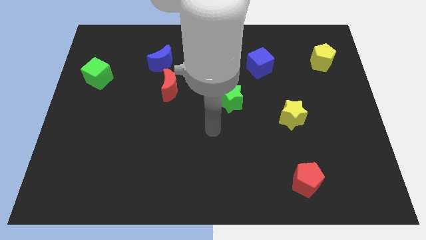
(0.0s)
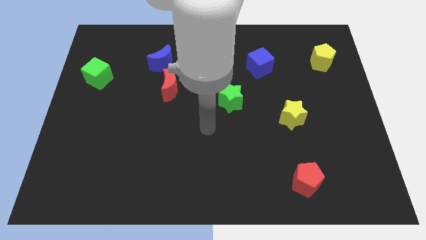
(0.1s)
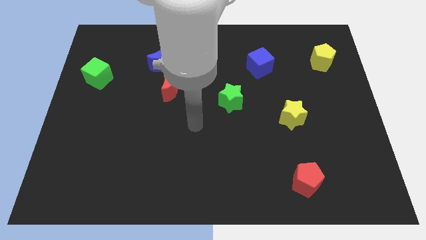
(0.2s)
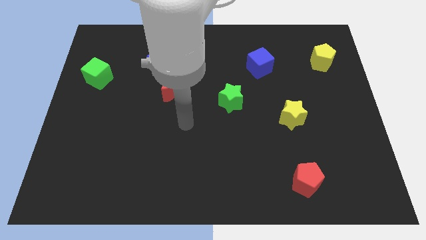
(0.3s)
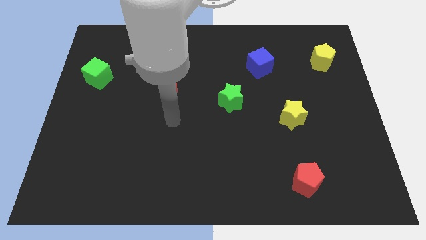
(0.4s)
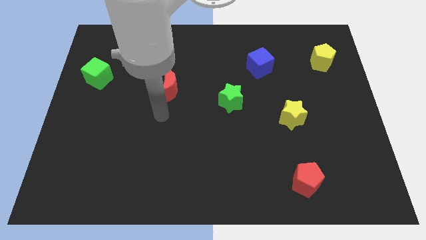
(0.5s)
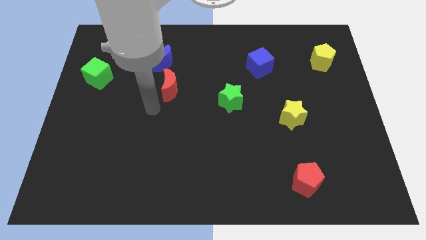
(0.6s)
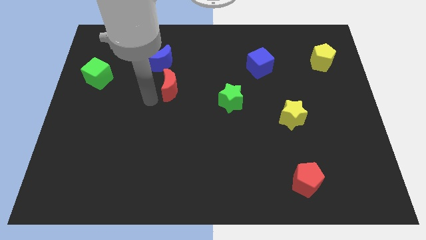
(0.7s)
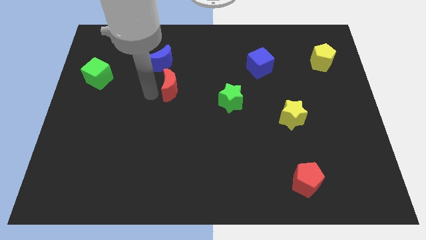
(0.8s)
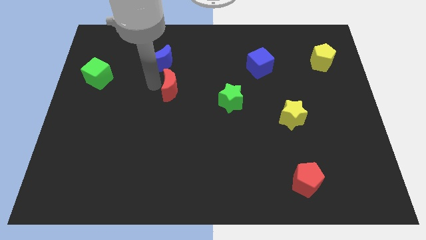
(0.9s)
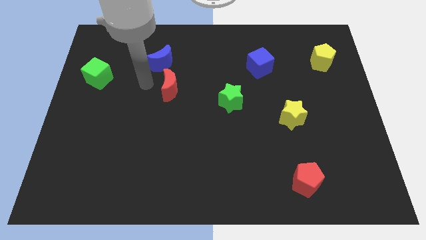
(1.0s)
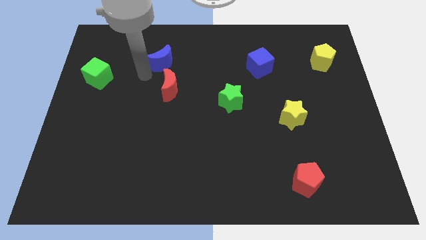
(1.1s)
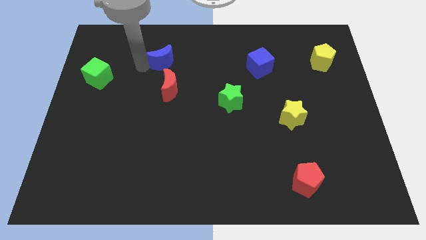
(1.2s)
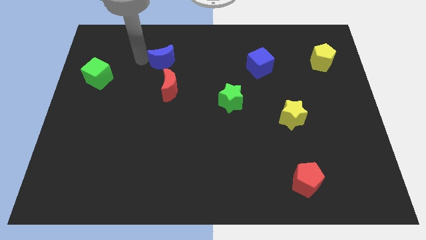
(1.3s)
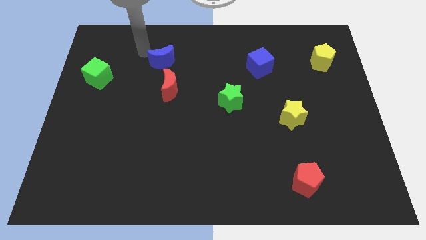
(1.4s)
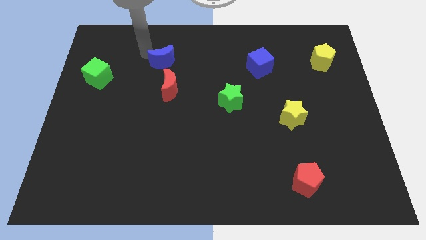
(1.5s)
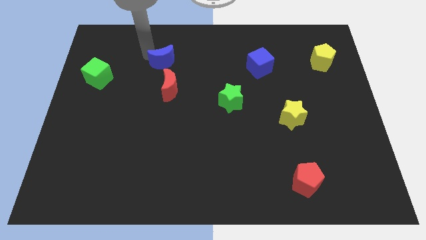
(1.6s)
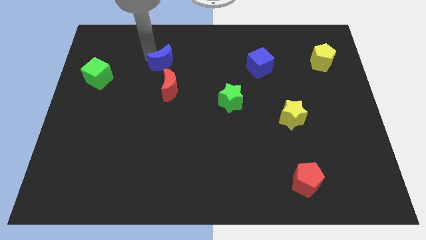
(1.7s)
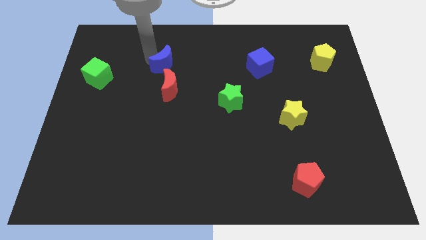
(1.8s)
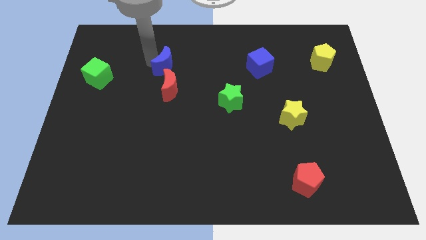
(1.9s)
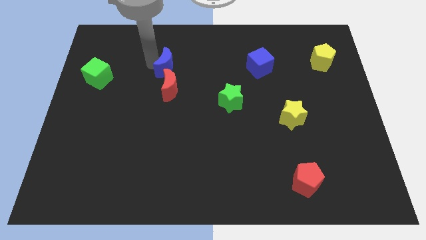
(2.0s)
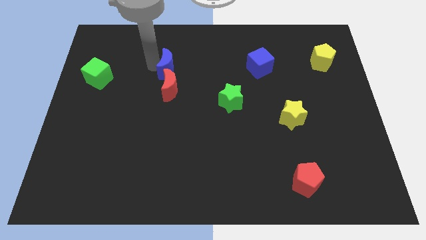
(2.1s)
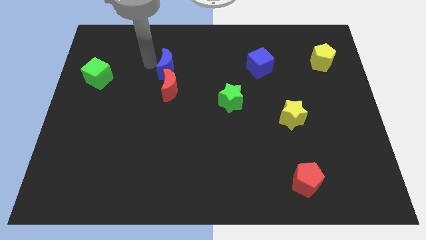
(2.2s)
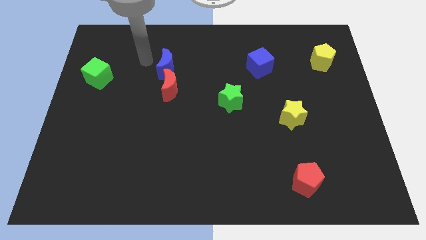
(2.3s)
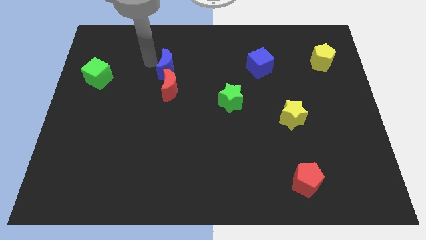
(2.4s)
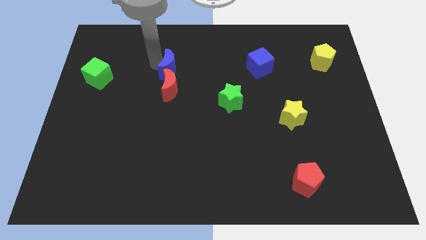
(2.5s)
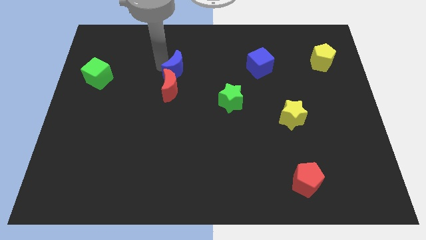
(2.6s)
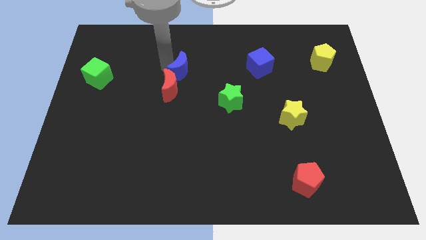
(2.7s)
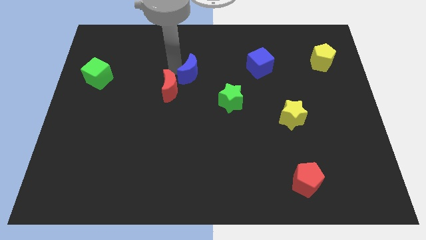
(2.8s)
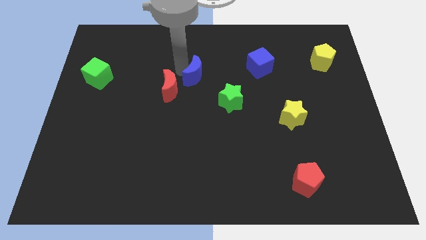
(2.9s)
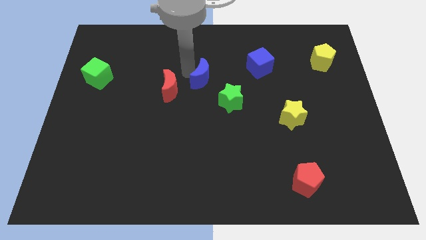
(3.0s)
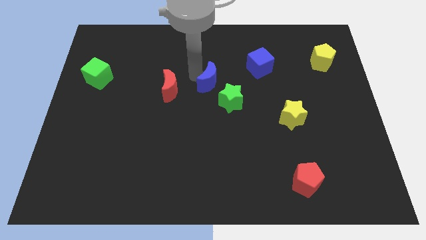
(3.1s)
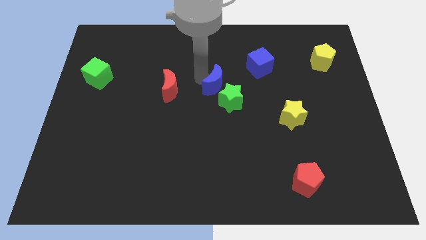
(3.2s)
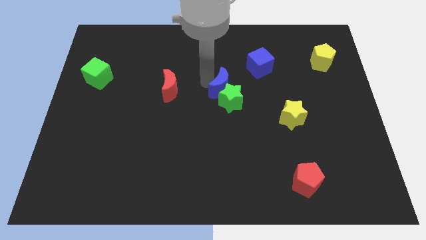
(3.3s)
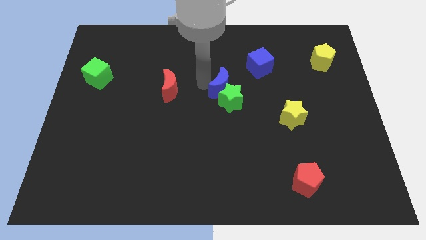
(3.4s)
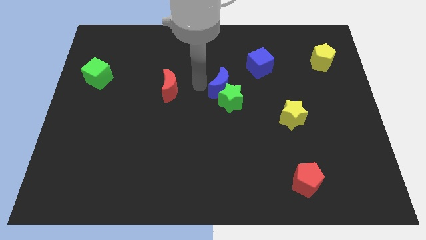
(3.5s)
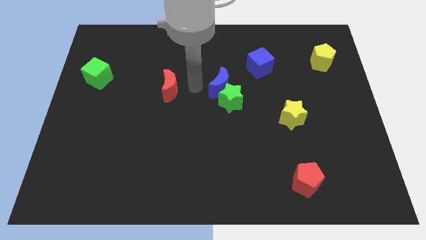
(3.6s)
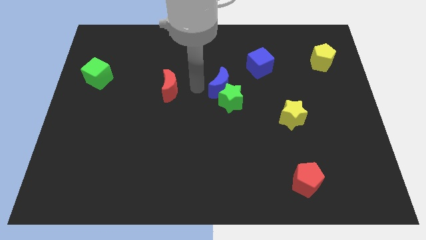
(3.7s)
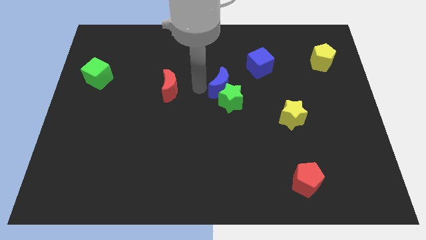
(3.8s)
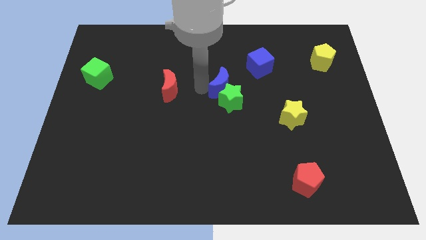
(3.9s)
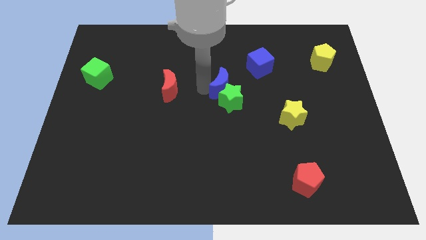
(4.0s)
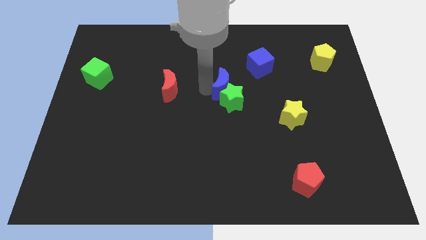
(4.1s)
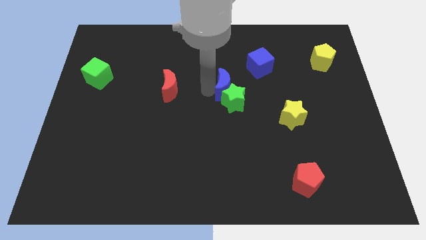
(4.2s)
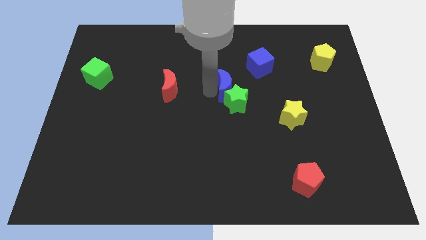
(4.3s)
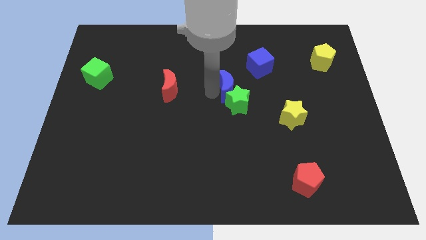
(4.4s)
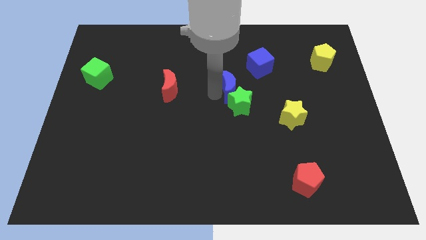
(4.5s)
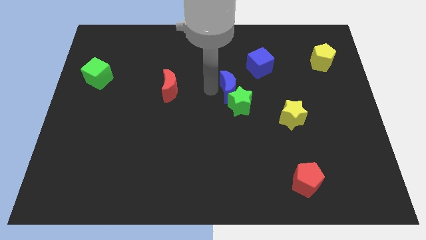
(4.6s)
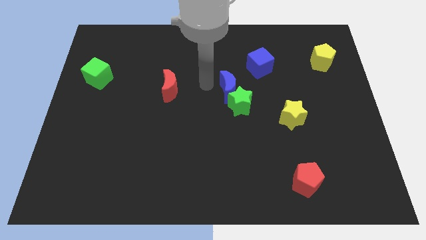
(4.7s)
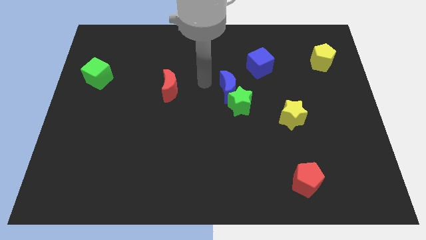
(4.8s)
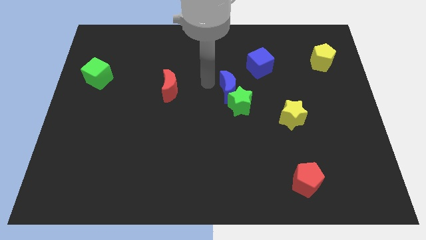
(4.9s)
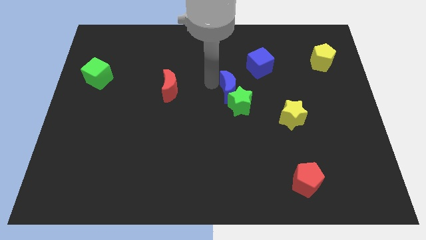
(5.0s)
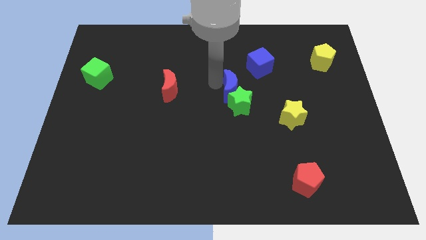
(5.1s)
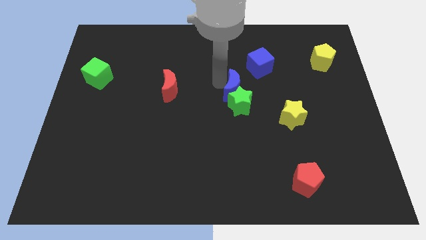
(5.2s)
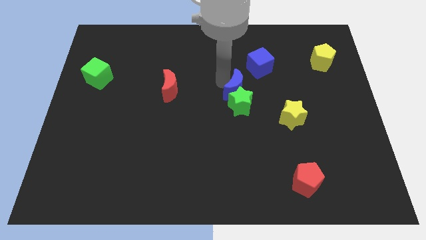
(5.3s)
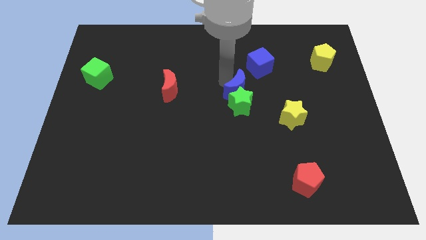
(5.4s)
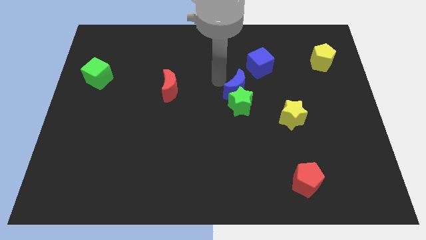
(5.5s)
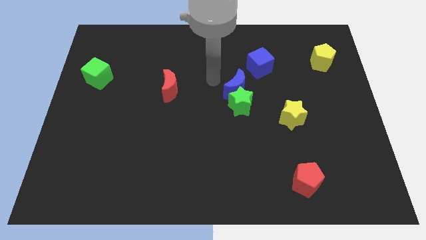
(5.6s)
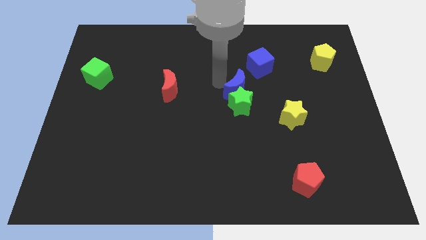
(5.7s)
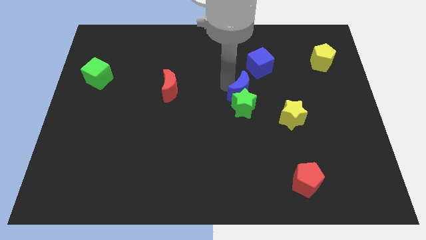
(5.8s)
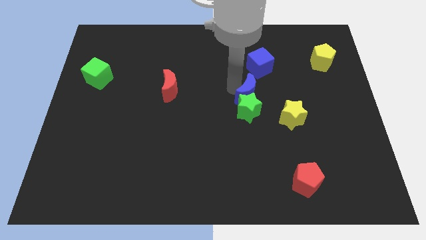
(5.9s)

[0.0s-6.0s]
slide the blue moon to the top left side of the yellow star

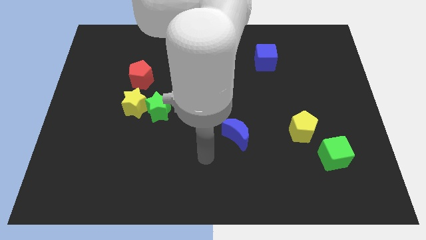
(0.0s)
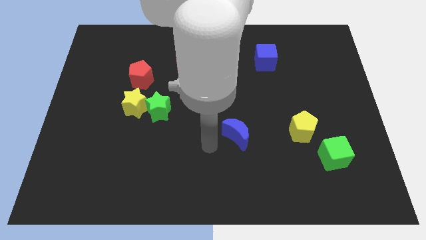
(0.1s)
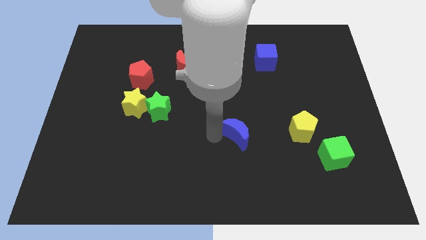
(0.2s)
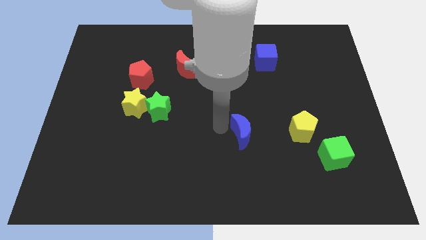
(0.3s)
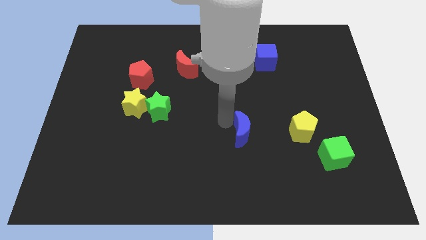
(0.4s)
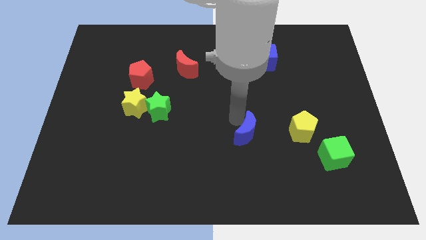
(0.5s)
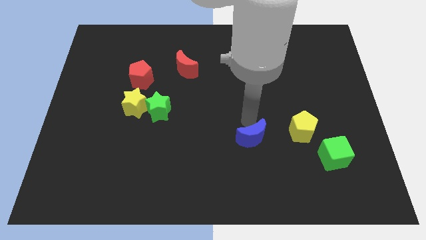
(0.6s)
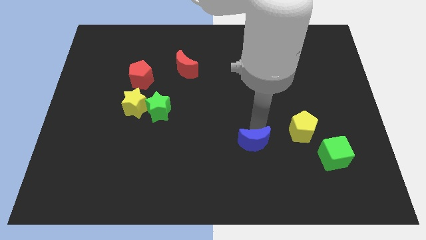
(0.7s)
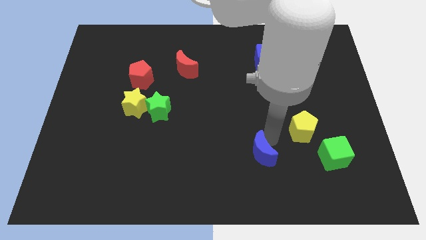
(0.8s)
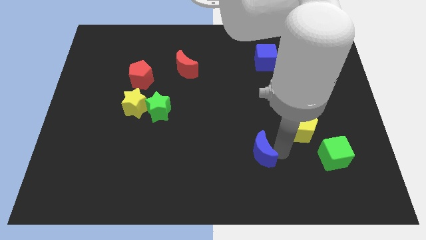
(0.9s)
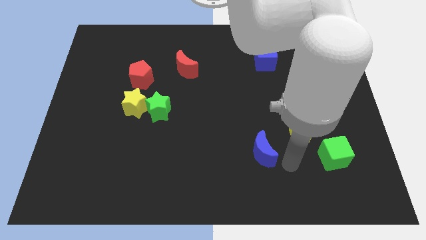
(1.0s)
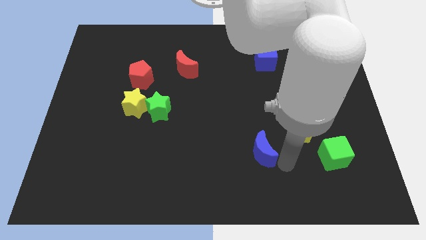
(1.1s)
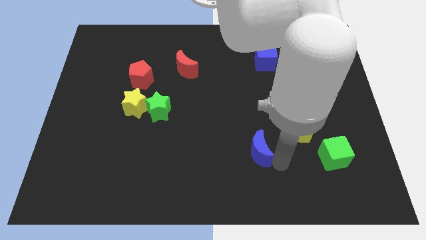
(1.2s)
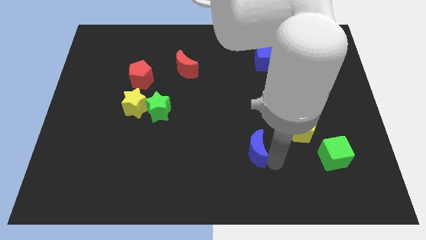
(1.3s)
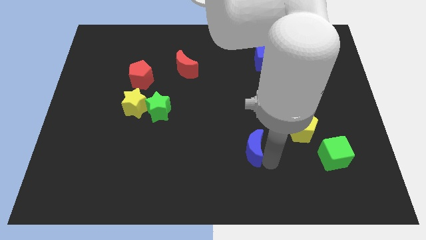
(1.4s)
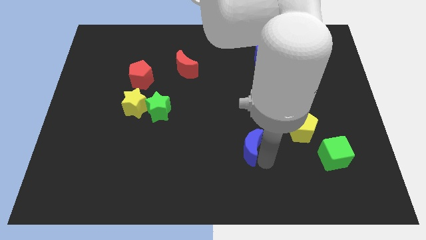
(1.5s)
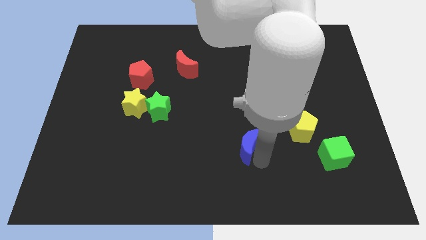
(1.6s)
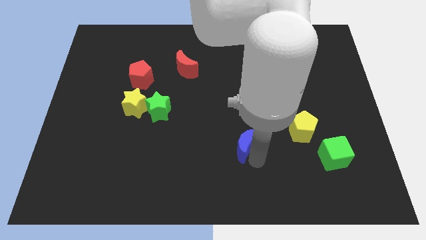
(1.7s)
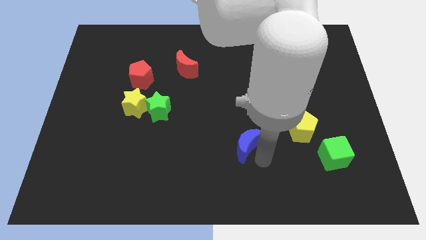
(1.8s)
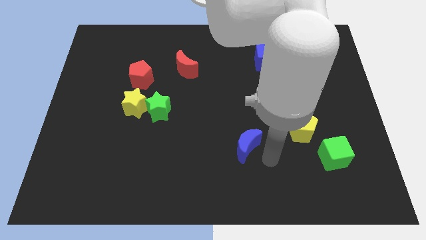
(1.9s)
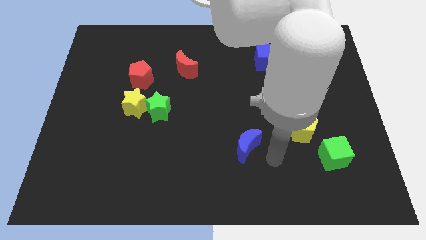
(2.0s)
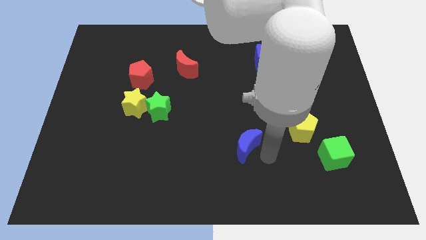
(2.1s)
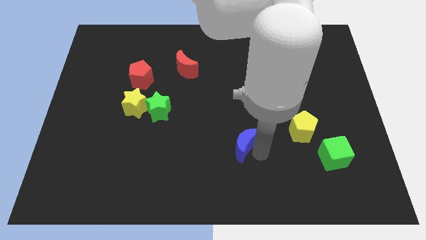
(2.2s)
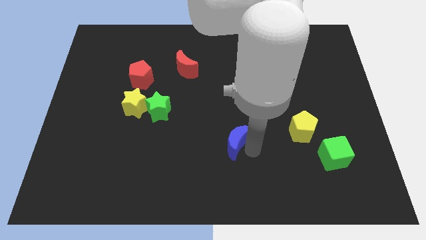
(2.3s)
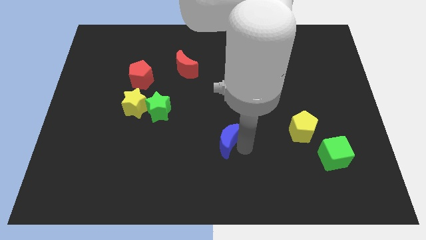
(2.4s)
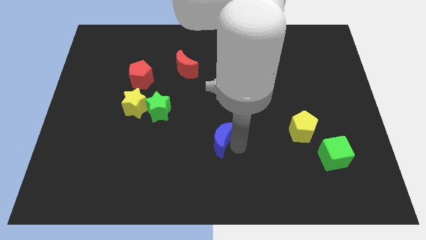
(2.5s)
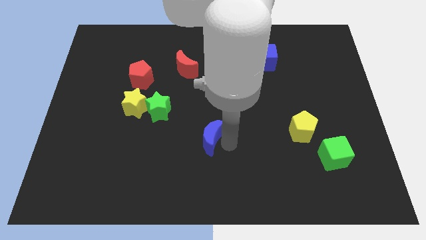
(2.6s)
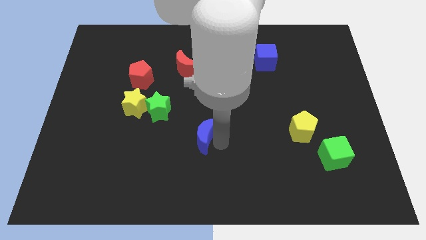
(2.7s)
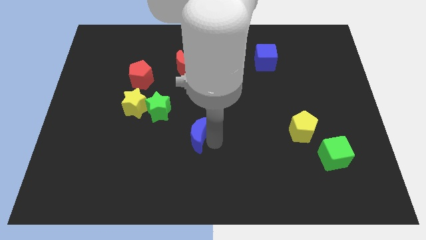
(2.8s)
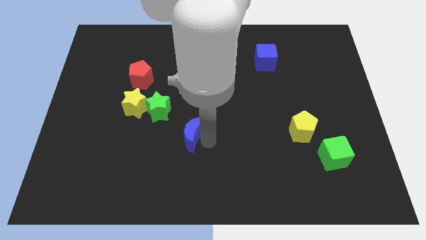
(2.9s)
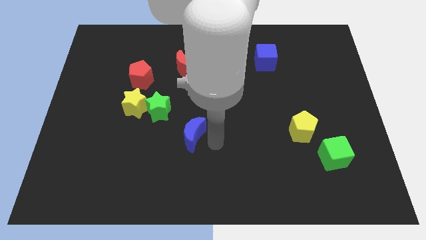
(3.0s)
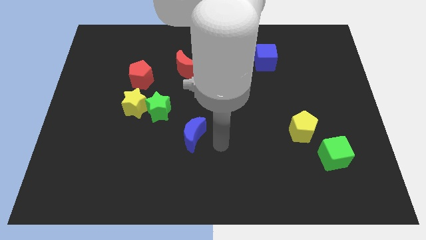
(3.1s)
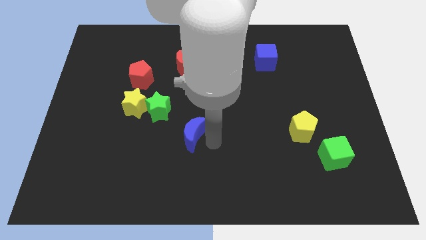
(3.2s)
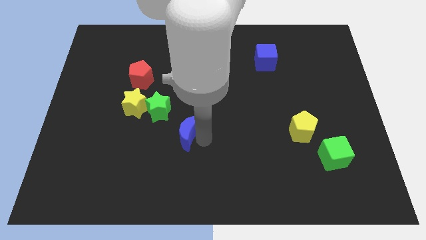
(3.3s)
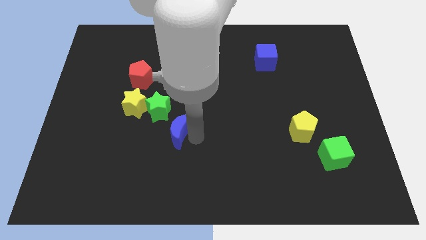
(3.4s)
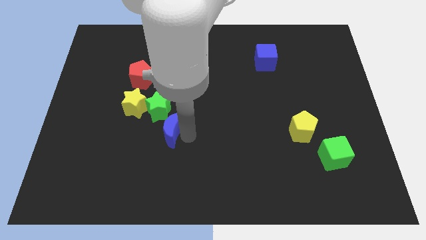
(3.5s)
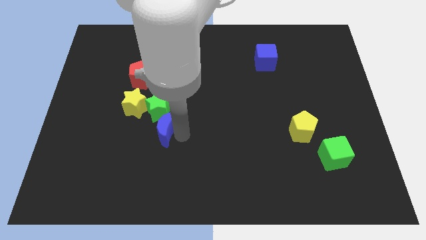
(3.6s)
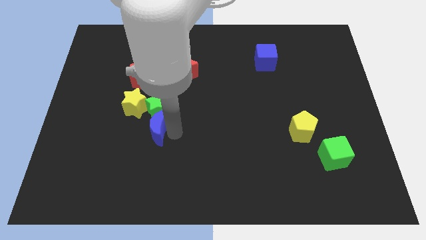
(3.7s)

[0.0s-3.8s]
push the blue moon to the bottom left side of the green star
